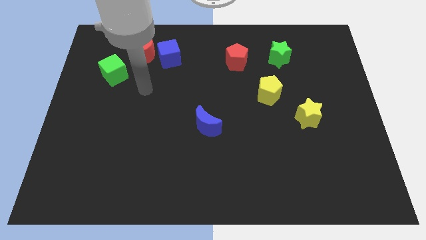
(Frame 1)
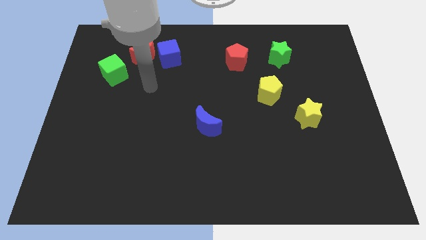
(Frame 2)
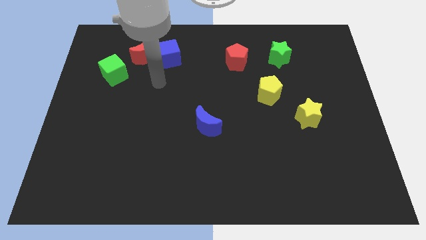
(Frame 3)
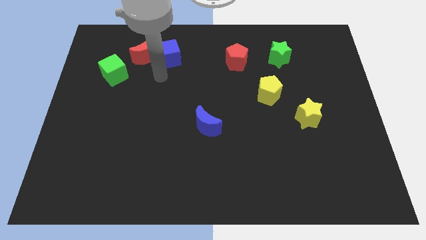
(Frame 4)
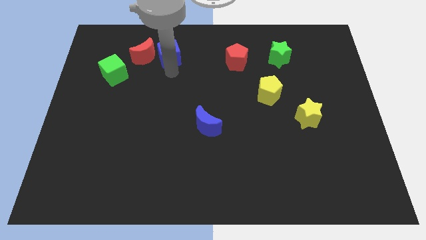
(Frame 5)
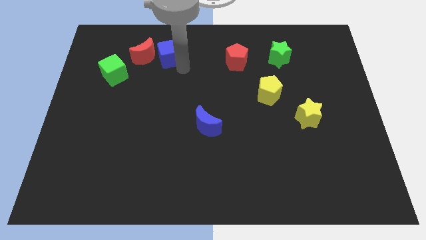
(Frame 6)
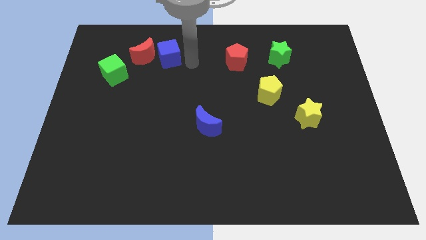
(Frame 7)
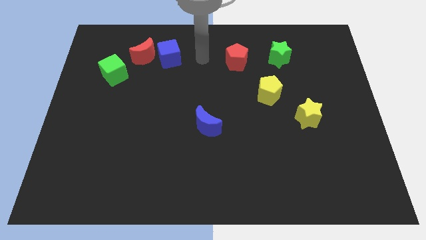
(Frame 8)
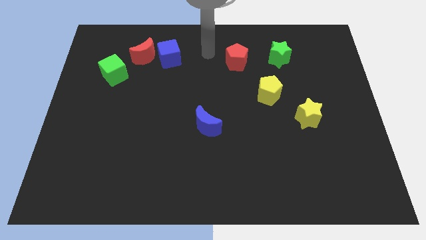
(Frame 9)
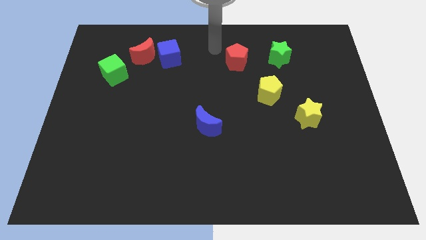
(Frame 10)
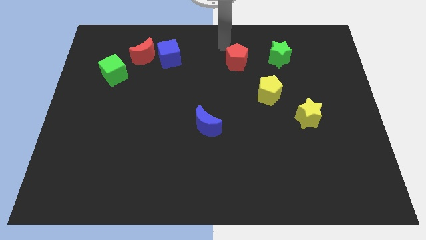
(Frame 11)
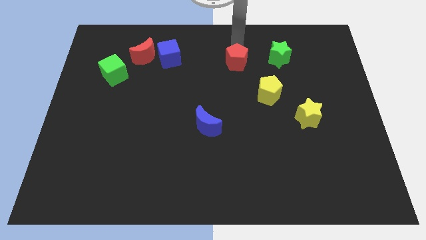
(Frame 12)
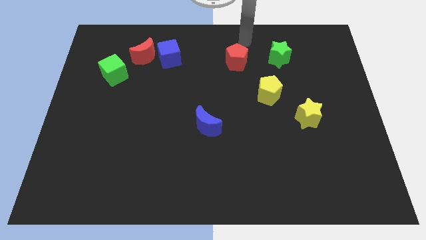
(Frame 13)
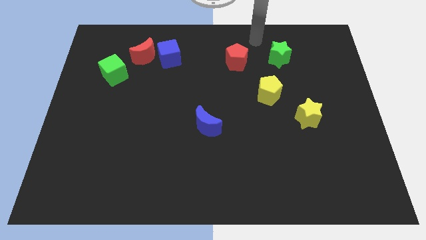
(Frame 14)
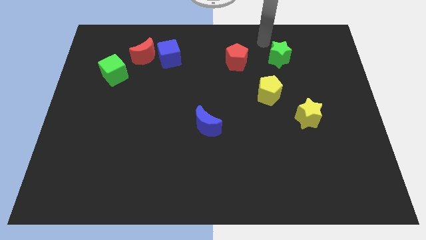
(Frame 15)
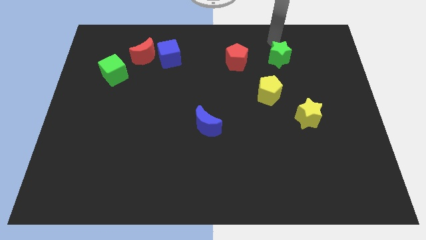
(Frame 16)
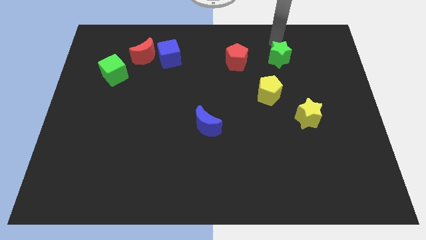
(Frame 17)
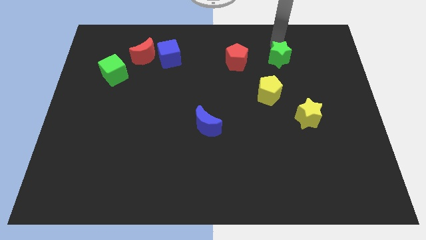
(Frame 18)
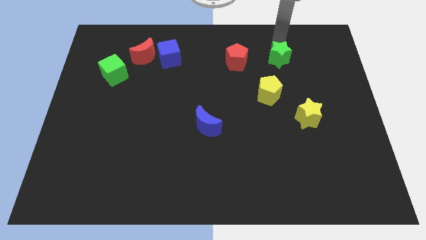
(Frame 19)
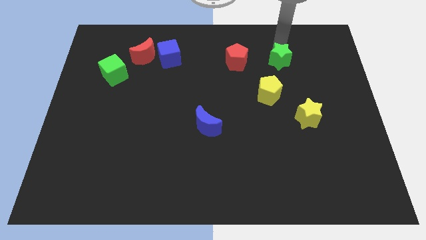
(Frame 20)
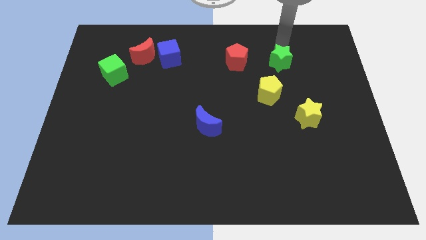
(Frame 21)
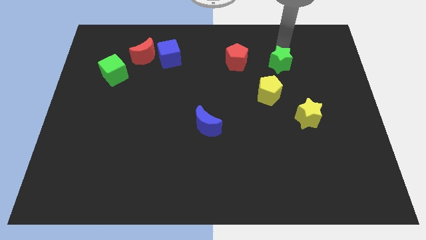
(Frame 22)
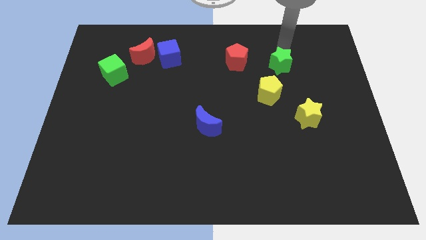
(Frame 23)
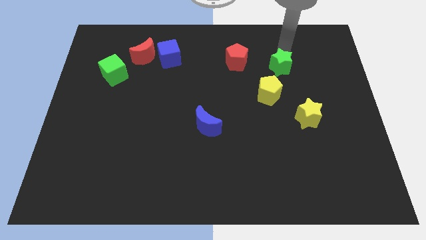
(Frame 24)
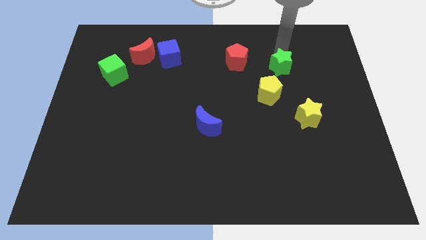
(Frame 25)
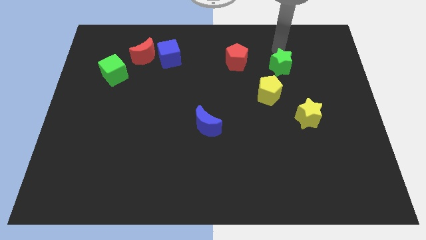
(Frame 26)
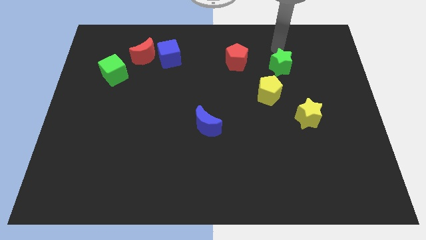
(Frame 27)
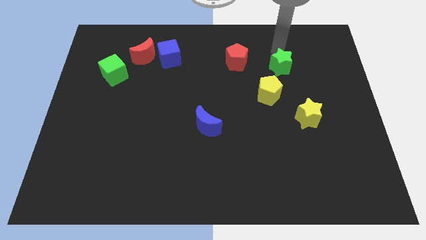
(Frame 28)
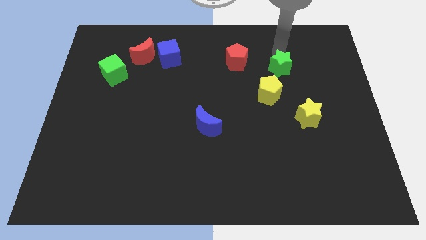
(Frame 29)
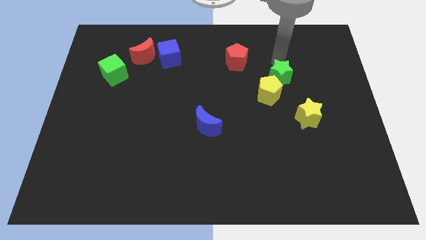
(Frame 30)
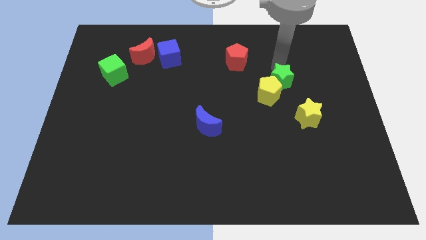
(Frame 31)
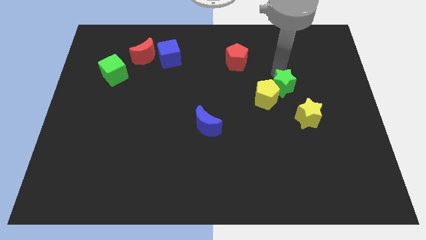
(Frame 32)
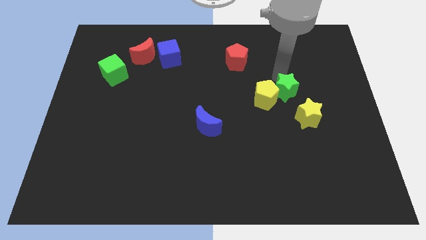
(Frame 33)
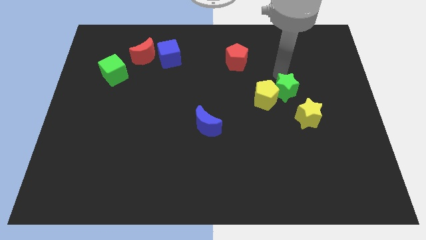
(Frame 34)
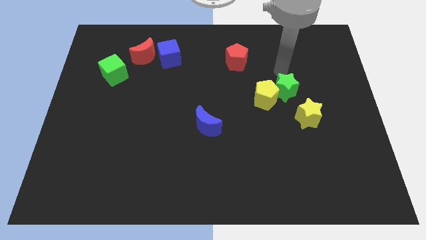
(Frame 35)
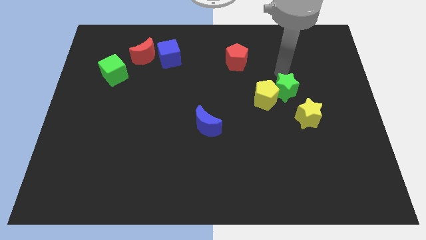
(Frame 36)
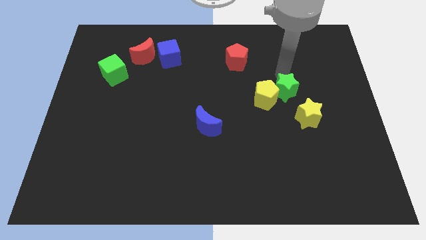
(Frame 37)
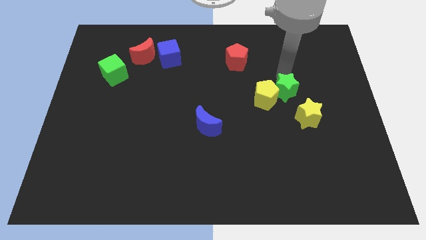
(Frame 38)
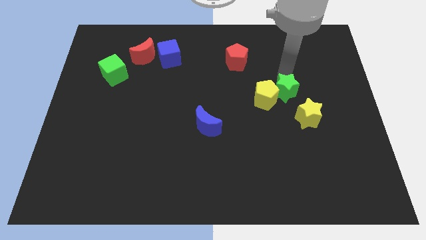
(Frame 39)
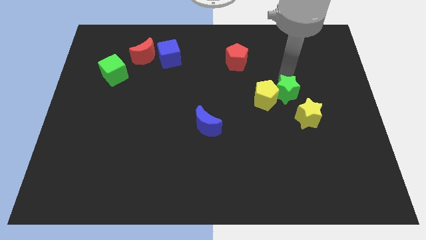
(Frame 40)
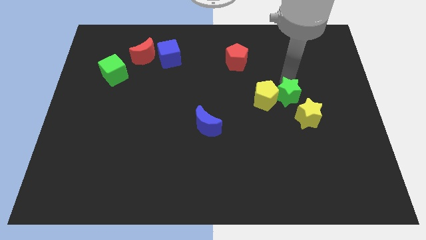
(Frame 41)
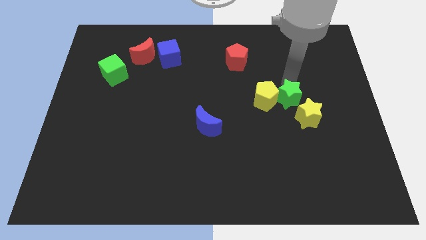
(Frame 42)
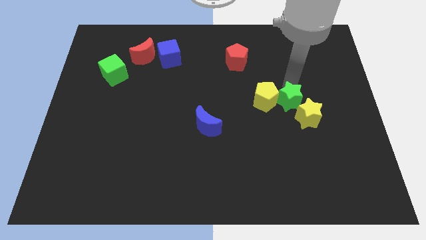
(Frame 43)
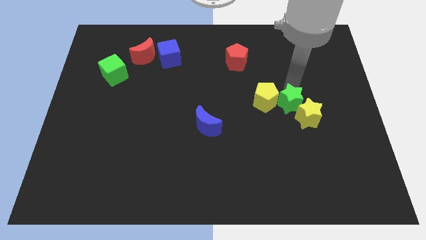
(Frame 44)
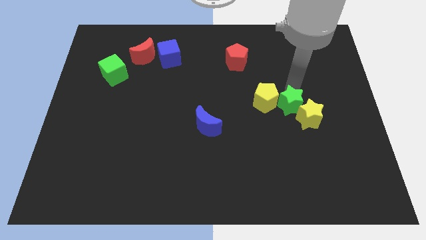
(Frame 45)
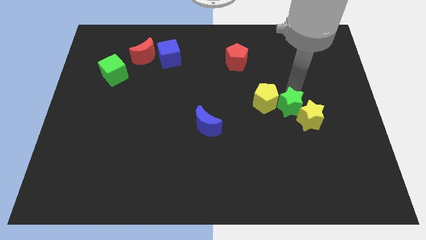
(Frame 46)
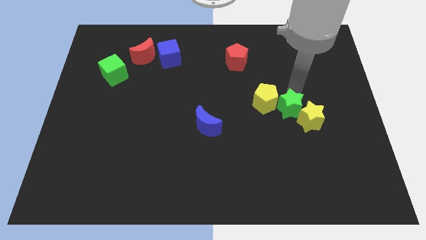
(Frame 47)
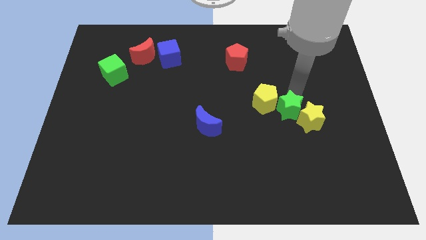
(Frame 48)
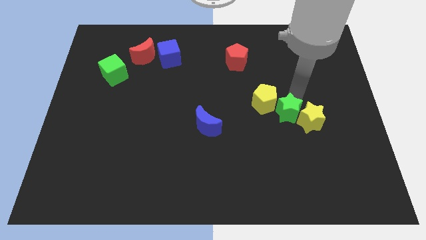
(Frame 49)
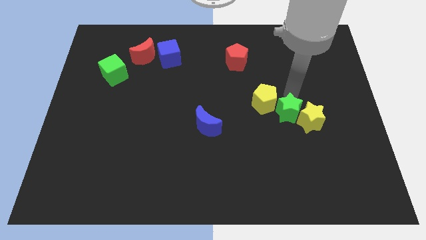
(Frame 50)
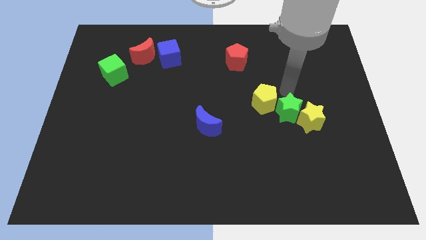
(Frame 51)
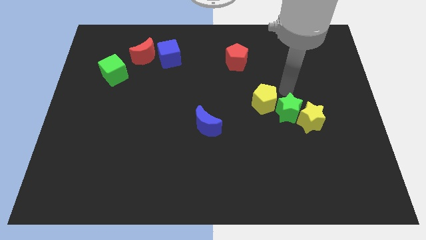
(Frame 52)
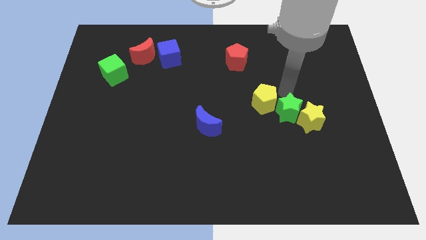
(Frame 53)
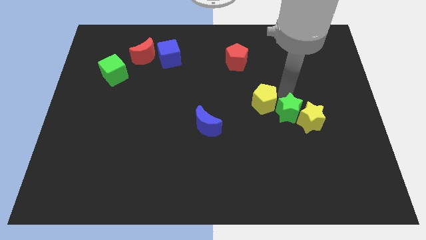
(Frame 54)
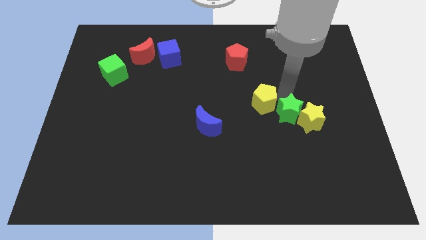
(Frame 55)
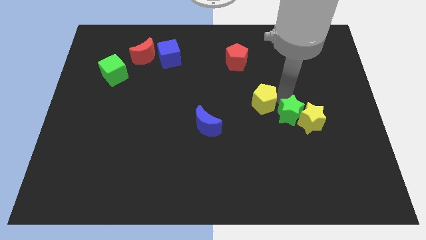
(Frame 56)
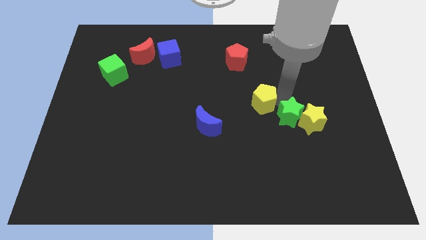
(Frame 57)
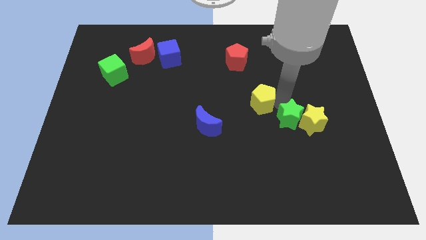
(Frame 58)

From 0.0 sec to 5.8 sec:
slide the green star down

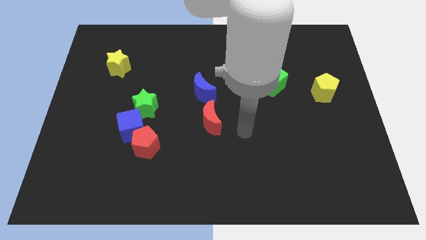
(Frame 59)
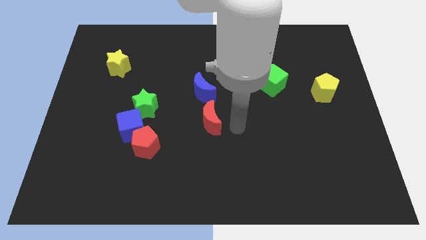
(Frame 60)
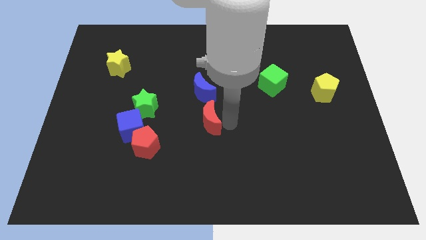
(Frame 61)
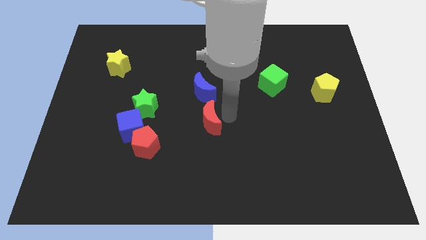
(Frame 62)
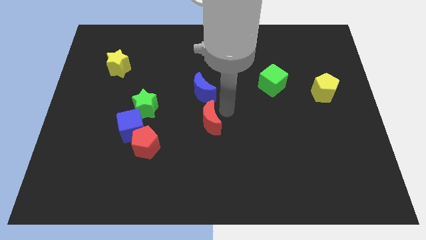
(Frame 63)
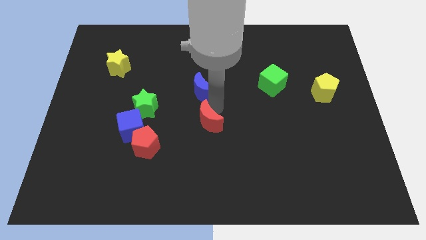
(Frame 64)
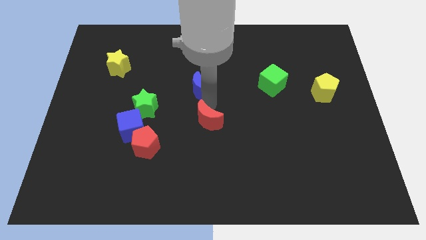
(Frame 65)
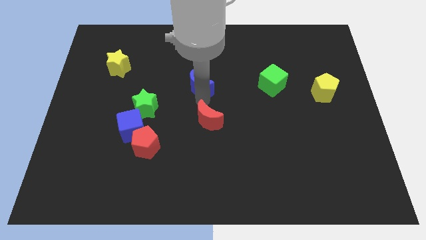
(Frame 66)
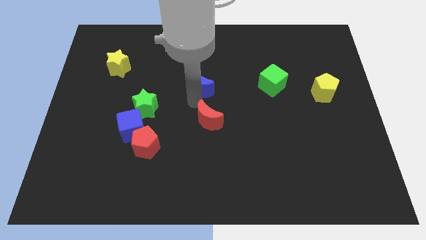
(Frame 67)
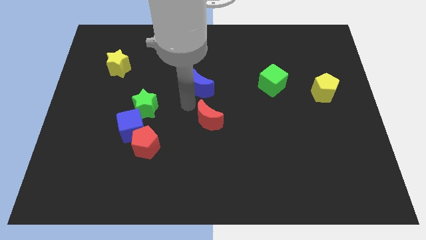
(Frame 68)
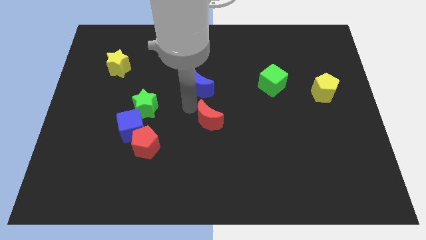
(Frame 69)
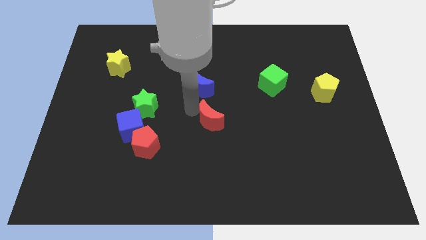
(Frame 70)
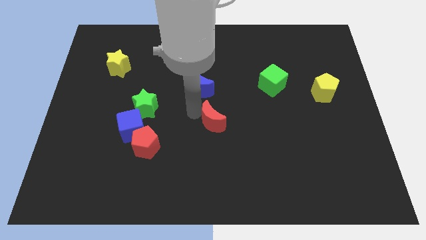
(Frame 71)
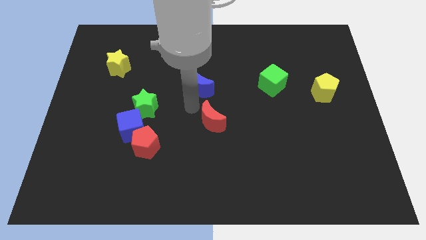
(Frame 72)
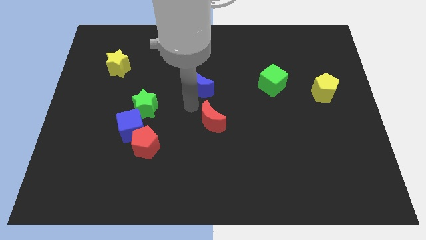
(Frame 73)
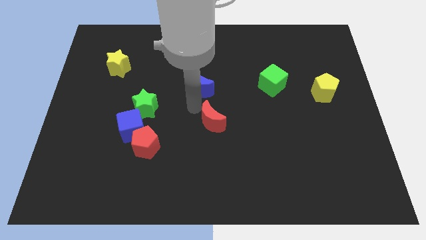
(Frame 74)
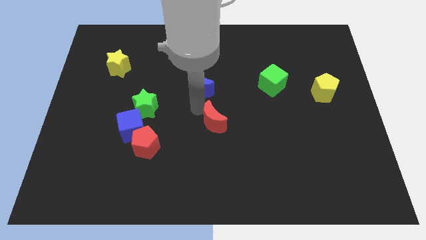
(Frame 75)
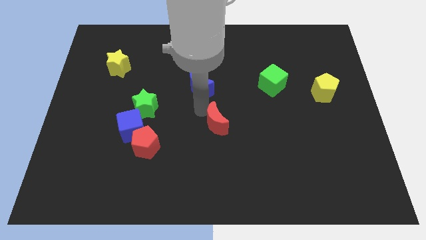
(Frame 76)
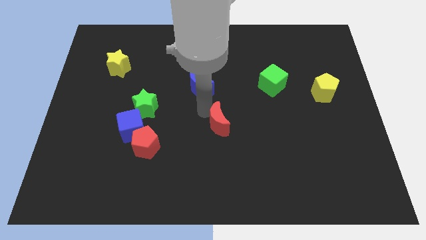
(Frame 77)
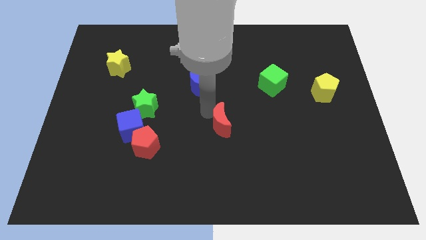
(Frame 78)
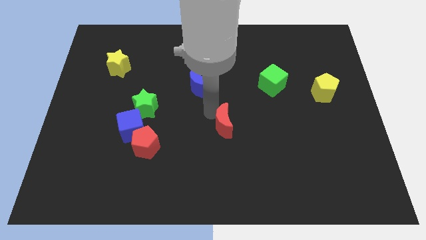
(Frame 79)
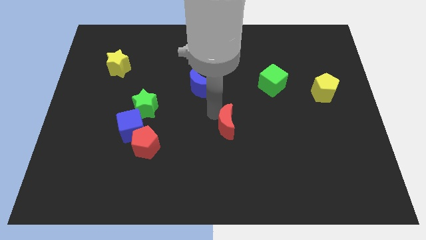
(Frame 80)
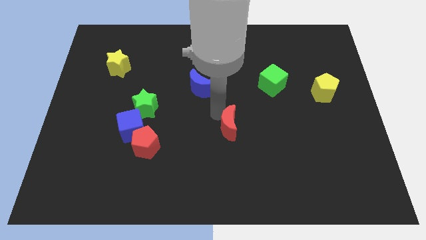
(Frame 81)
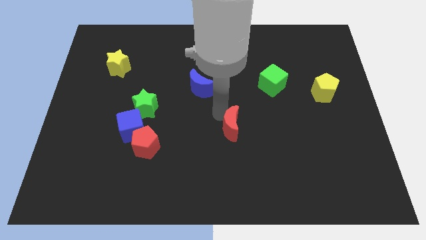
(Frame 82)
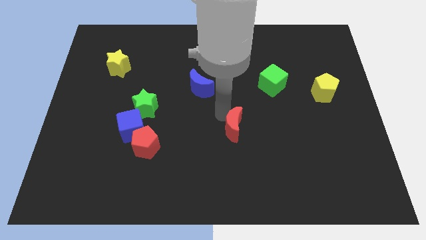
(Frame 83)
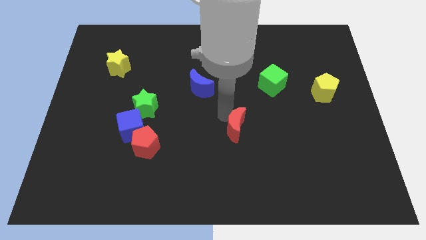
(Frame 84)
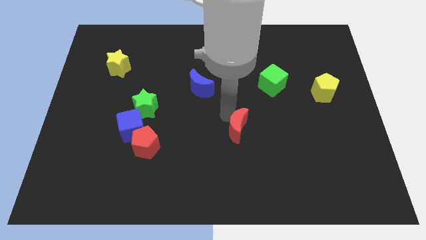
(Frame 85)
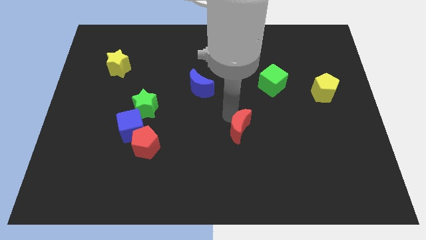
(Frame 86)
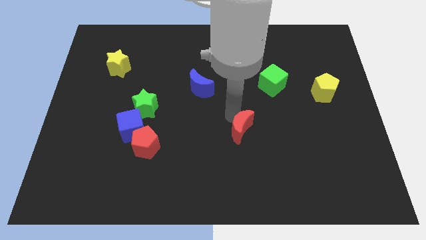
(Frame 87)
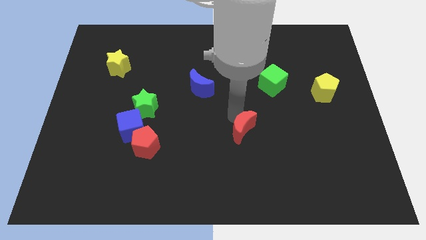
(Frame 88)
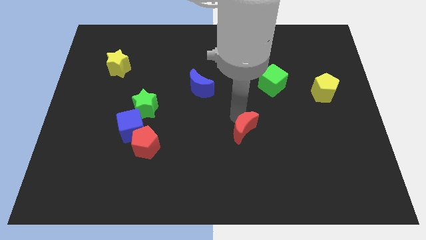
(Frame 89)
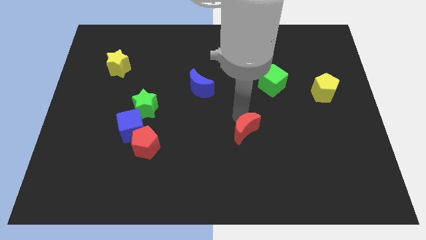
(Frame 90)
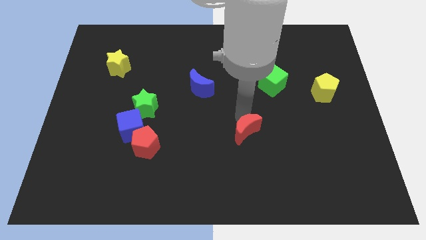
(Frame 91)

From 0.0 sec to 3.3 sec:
slightly move the red moon down and right diagonally
